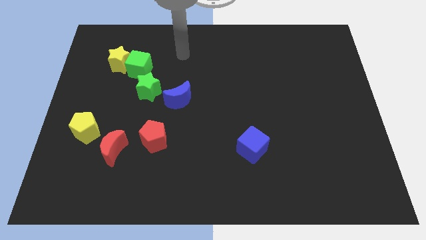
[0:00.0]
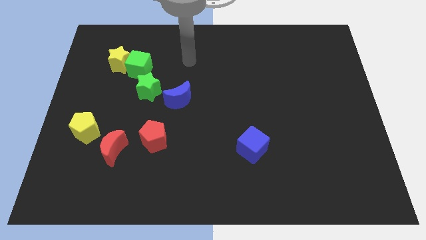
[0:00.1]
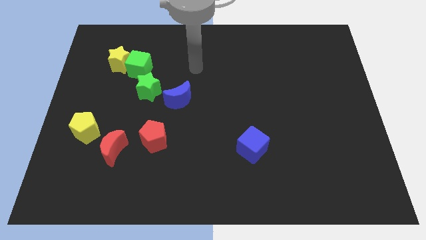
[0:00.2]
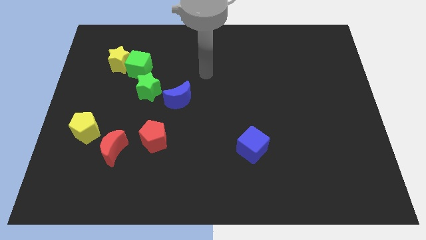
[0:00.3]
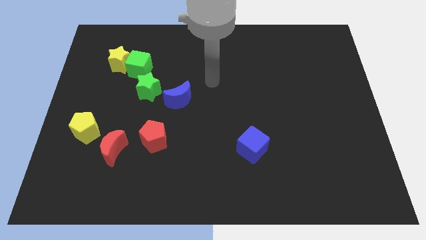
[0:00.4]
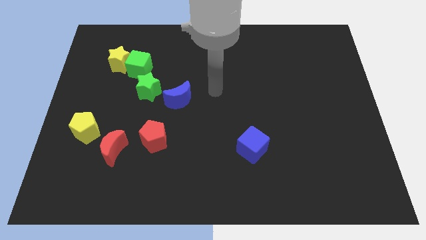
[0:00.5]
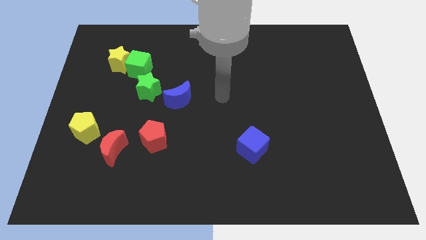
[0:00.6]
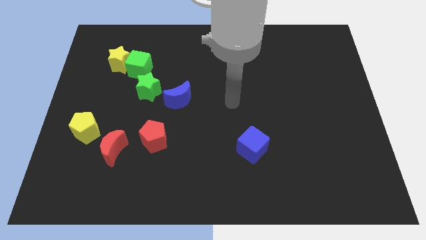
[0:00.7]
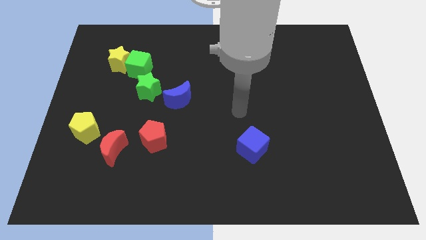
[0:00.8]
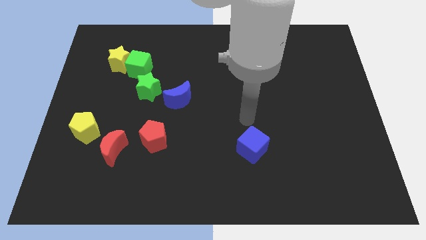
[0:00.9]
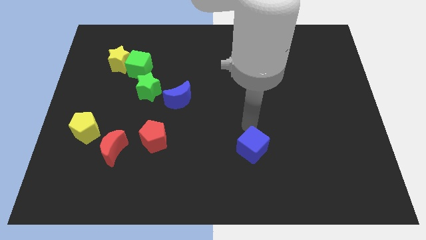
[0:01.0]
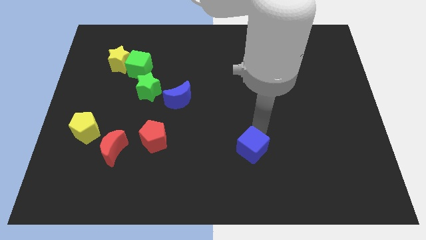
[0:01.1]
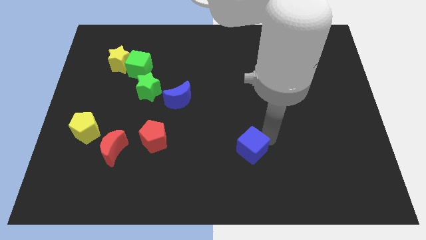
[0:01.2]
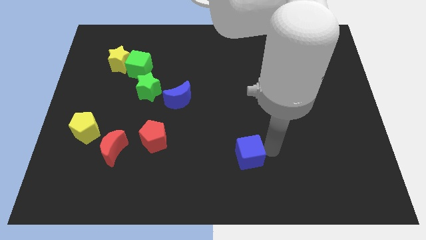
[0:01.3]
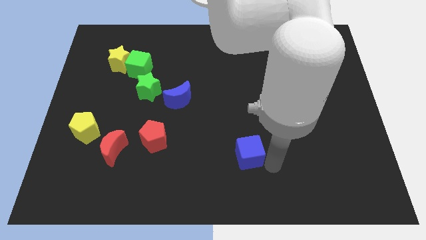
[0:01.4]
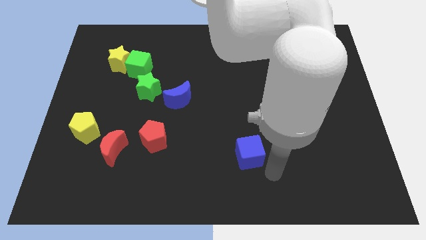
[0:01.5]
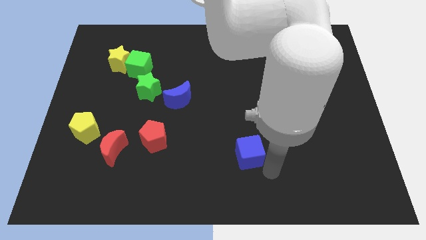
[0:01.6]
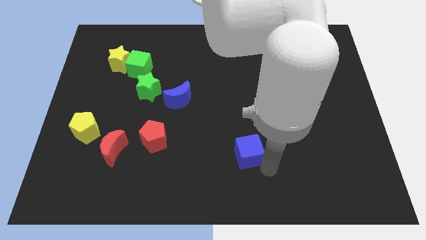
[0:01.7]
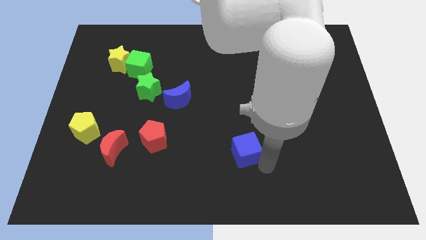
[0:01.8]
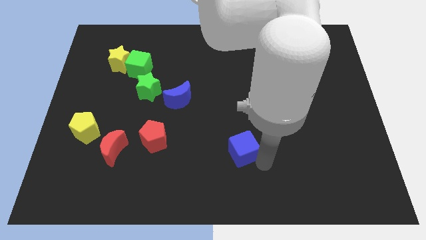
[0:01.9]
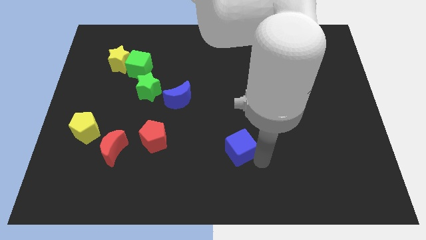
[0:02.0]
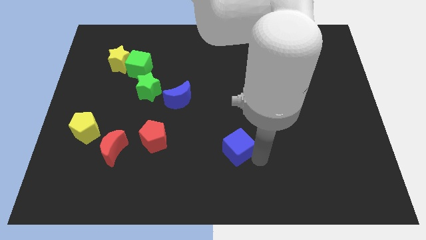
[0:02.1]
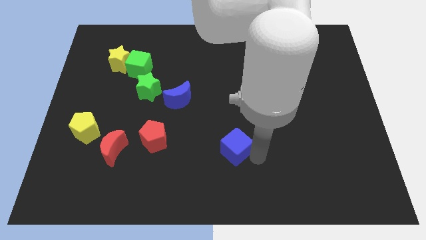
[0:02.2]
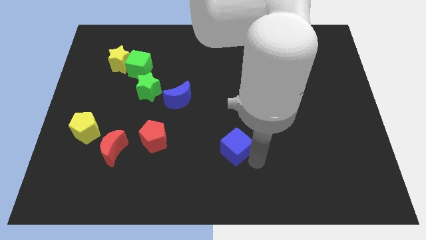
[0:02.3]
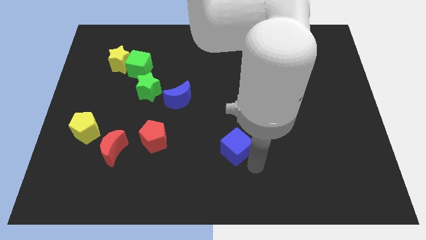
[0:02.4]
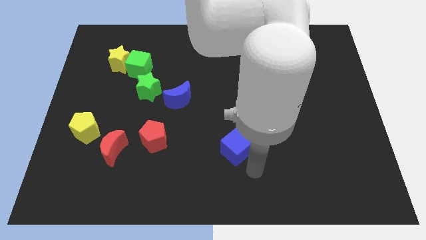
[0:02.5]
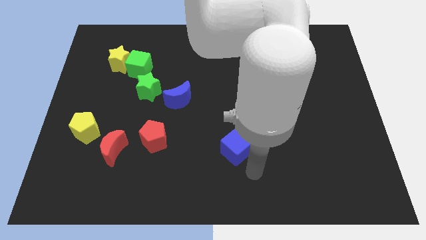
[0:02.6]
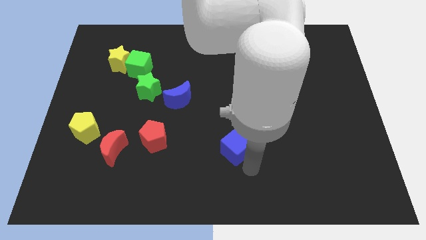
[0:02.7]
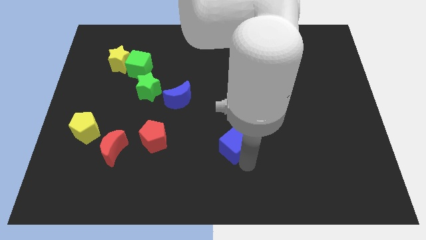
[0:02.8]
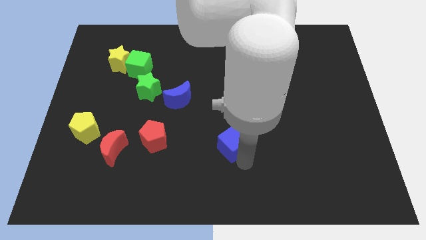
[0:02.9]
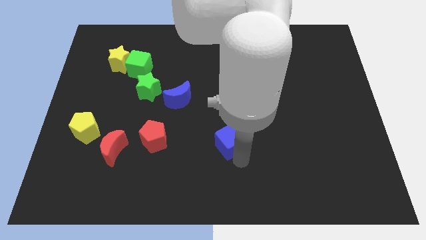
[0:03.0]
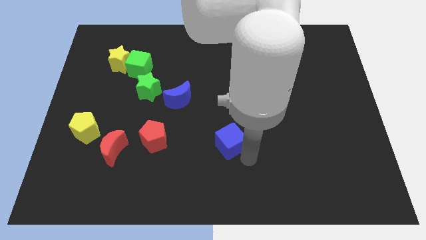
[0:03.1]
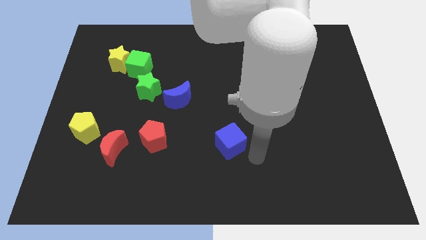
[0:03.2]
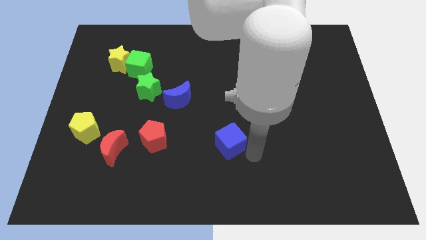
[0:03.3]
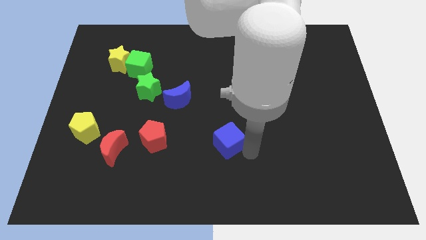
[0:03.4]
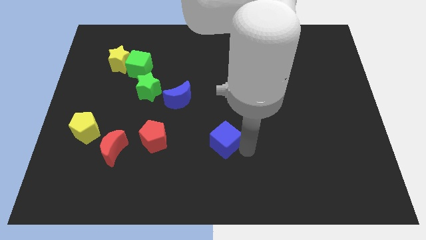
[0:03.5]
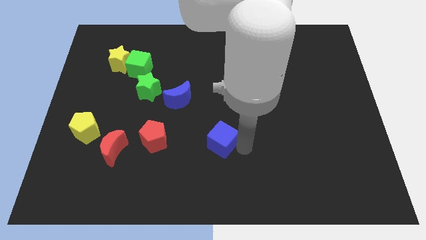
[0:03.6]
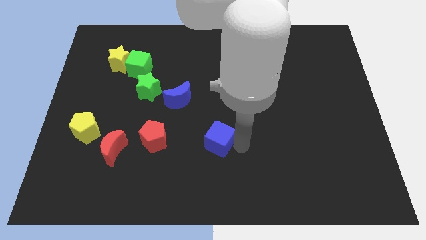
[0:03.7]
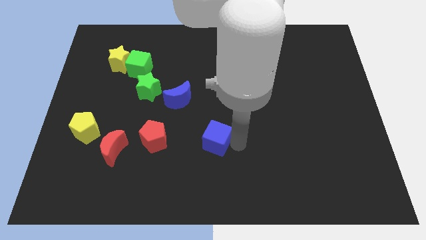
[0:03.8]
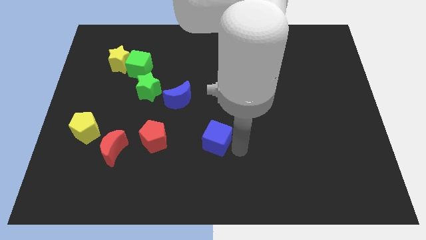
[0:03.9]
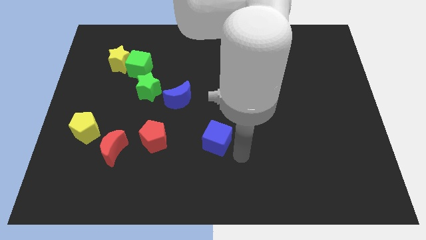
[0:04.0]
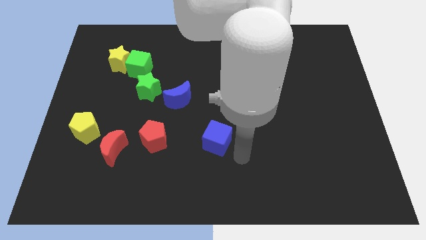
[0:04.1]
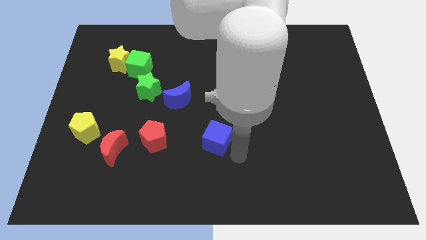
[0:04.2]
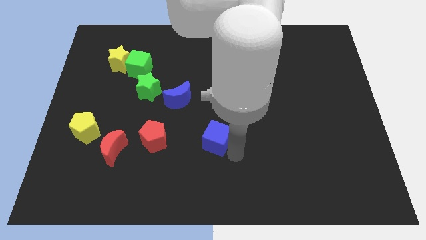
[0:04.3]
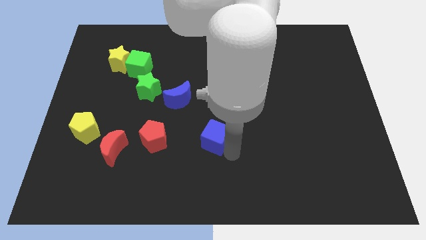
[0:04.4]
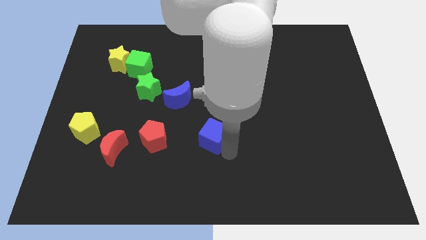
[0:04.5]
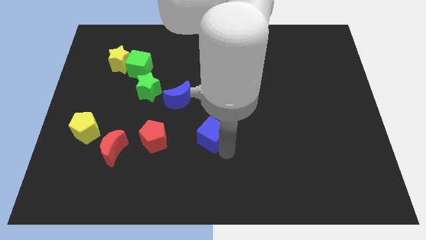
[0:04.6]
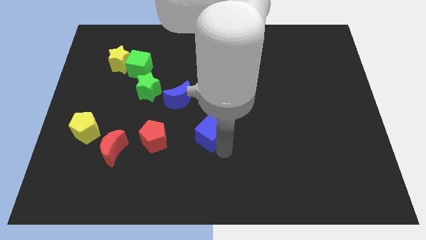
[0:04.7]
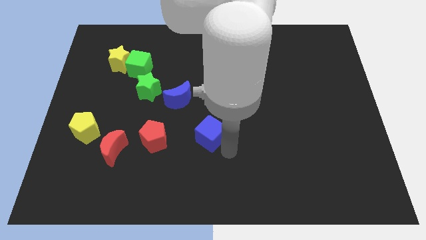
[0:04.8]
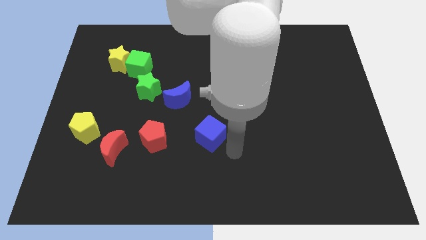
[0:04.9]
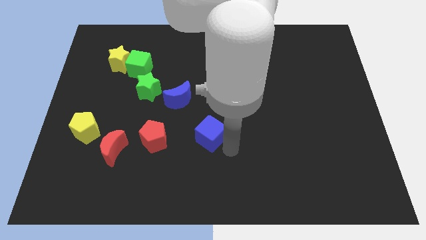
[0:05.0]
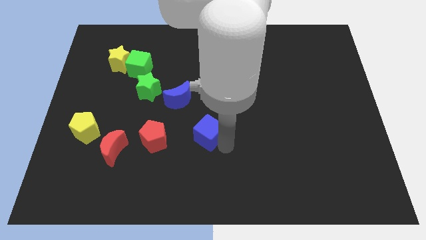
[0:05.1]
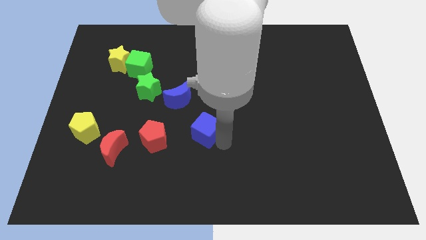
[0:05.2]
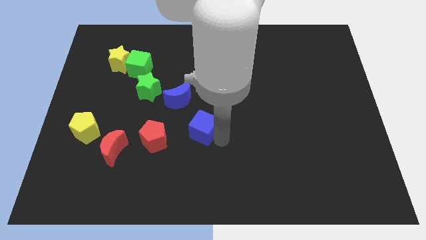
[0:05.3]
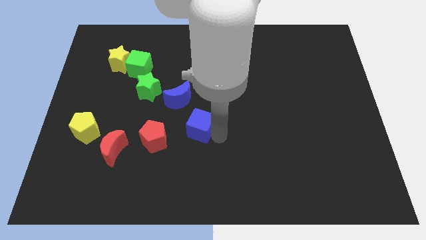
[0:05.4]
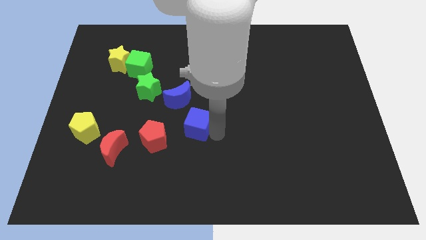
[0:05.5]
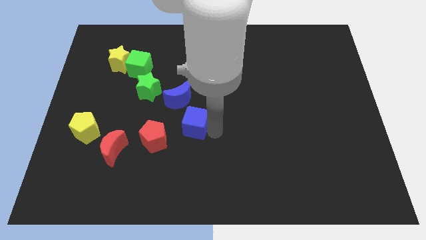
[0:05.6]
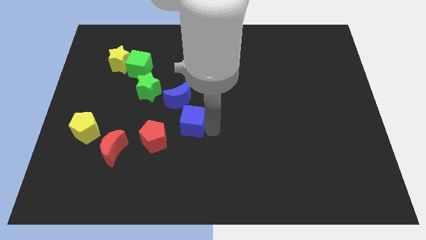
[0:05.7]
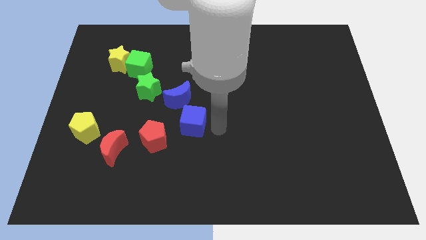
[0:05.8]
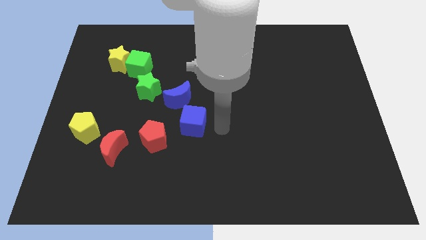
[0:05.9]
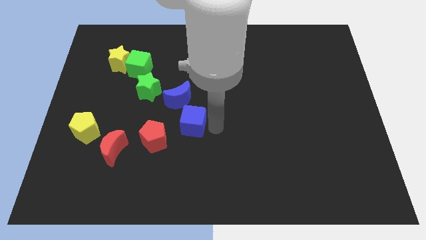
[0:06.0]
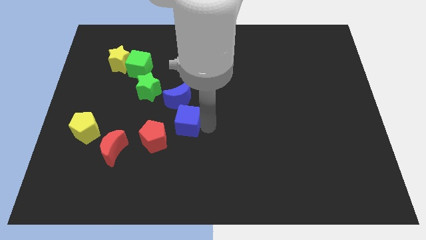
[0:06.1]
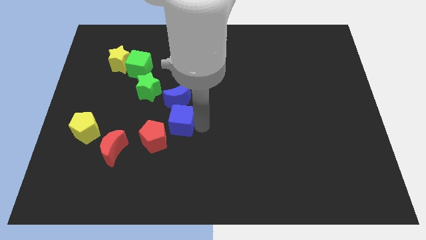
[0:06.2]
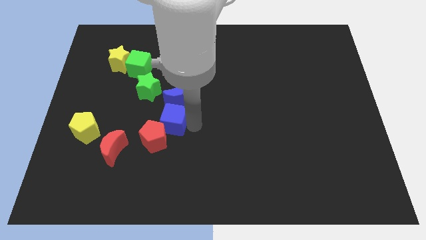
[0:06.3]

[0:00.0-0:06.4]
push the blue cube diagonally down and to the left of the blue moon

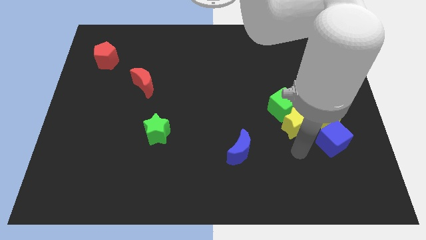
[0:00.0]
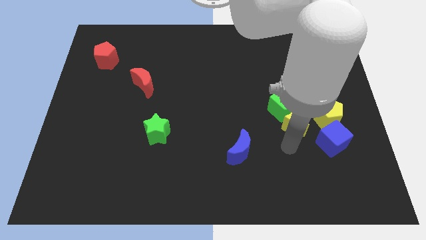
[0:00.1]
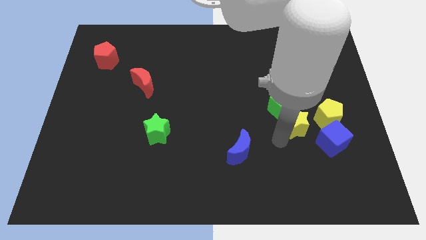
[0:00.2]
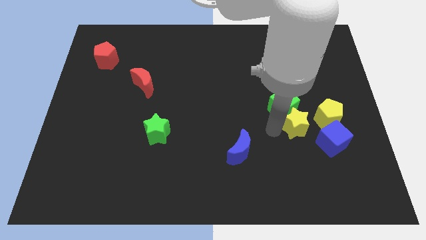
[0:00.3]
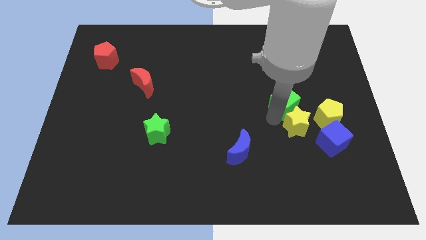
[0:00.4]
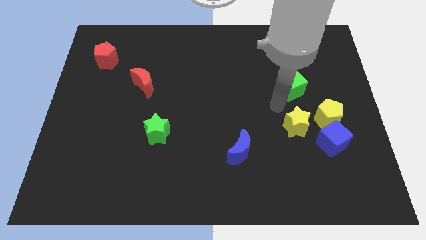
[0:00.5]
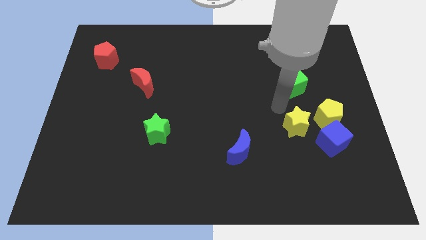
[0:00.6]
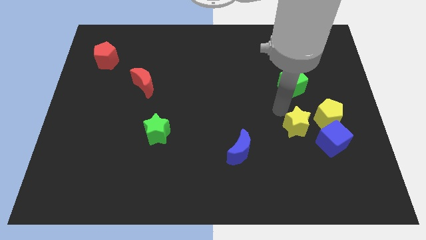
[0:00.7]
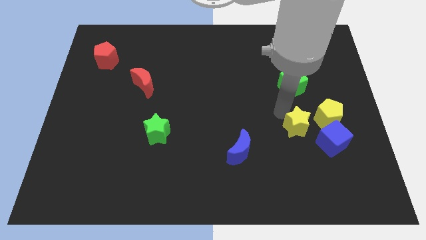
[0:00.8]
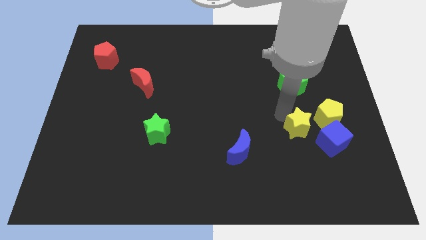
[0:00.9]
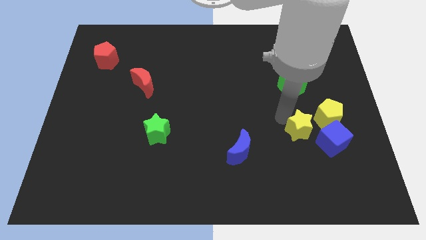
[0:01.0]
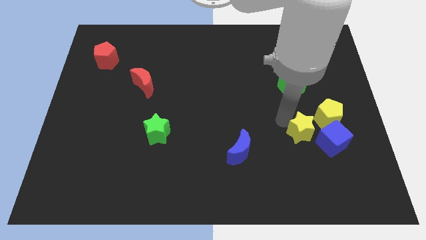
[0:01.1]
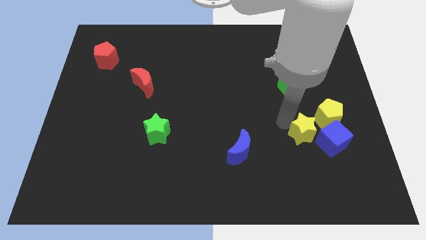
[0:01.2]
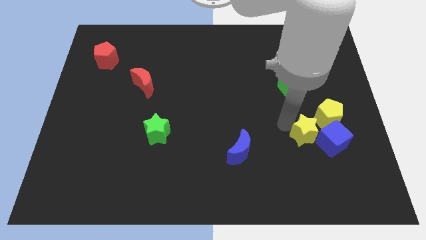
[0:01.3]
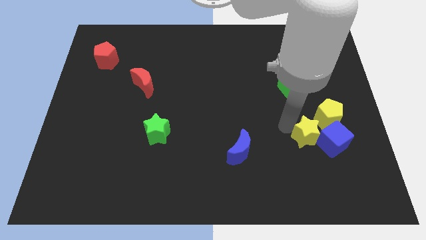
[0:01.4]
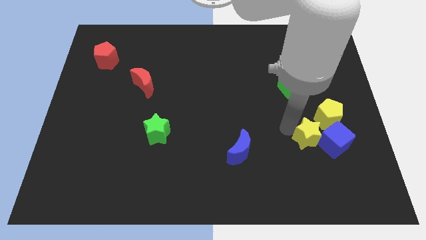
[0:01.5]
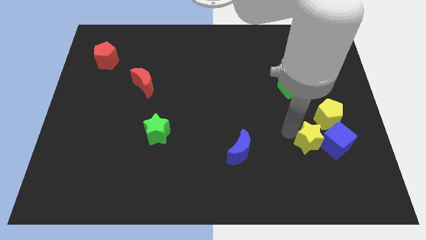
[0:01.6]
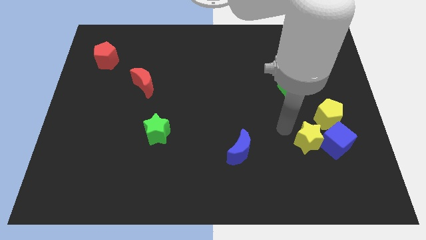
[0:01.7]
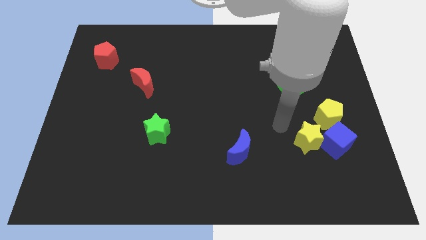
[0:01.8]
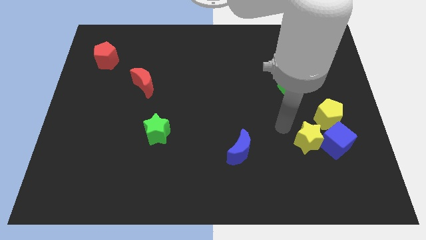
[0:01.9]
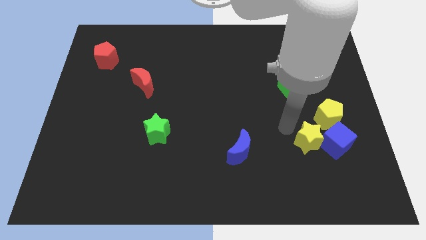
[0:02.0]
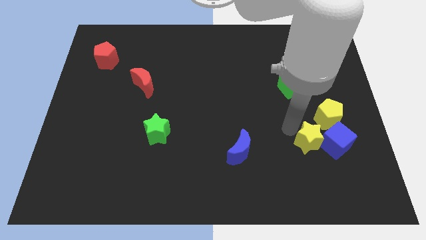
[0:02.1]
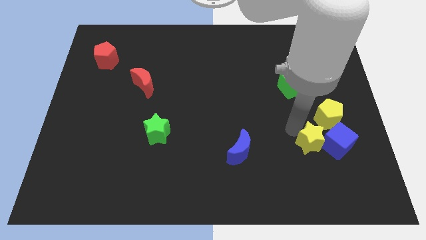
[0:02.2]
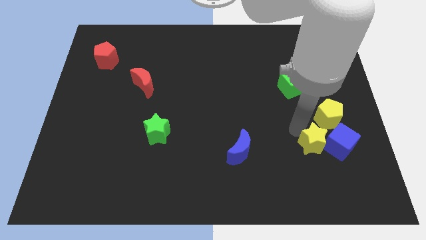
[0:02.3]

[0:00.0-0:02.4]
move the yellow star to the bottom side of the yellow pentagon
